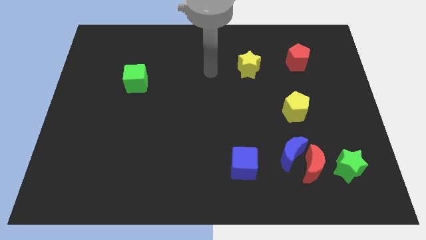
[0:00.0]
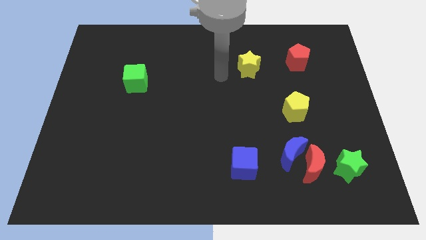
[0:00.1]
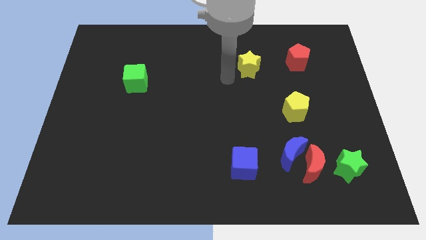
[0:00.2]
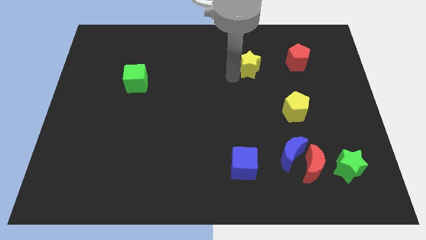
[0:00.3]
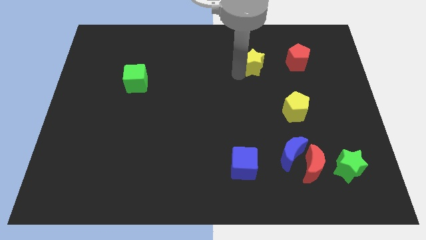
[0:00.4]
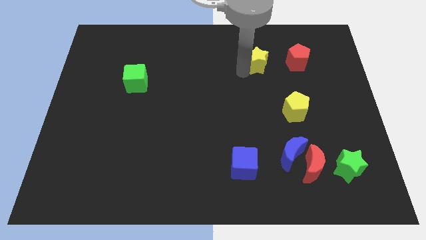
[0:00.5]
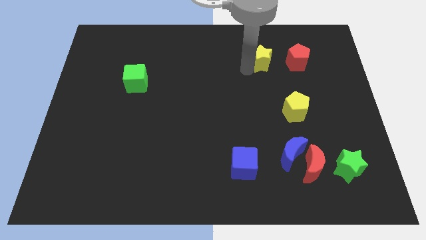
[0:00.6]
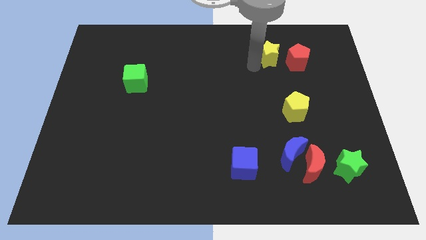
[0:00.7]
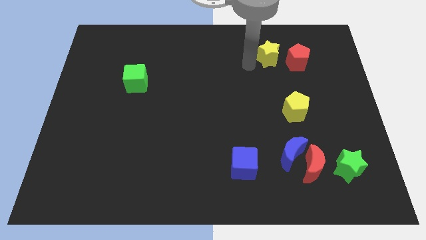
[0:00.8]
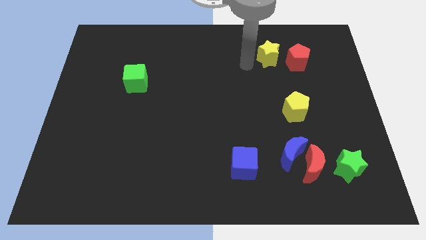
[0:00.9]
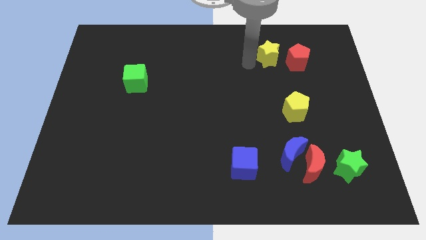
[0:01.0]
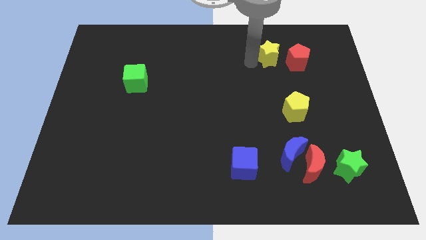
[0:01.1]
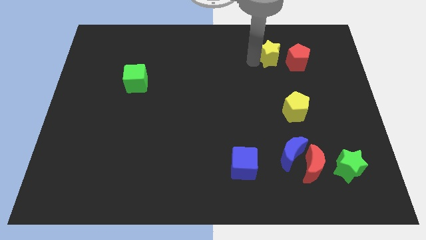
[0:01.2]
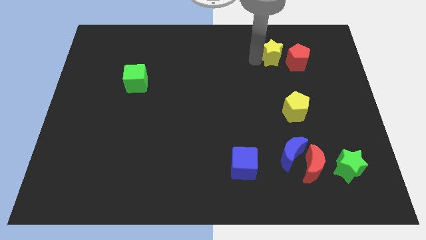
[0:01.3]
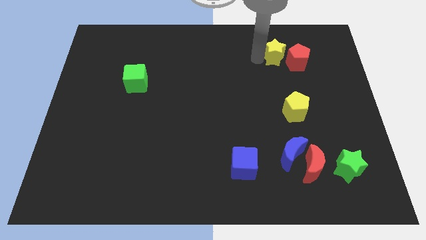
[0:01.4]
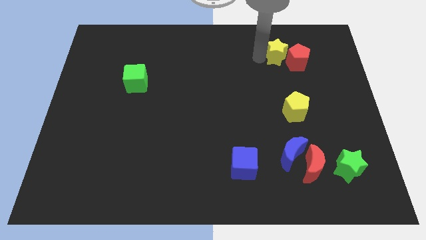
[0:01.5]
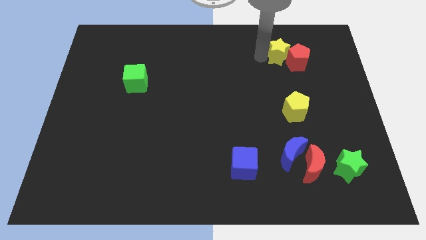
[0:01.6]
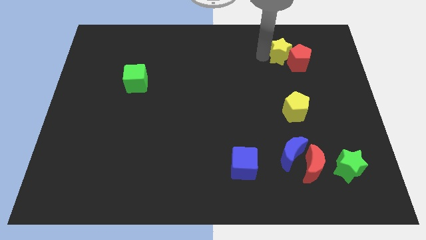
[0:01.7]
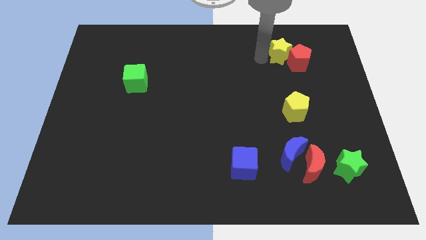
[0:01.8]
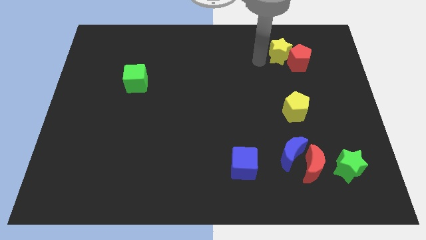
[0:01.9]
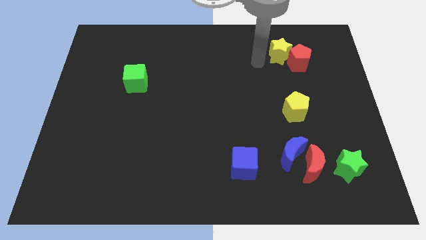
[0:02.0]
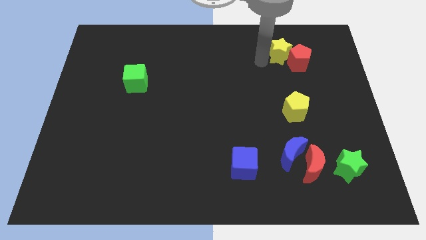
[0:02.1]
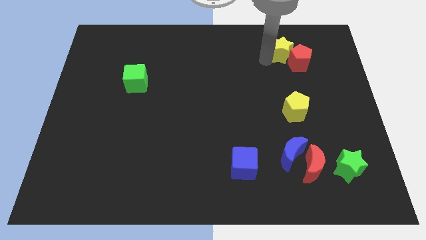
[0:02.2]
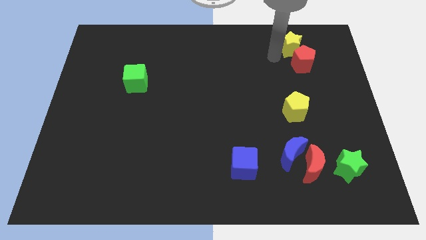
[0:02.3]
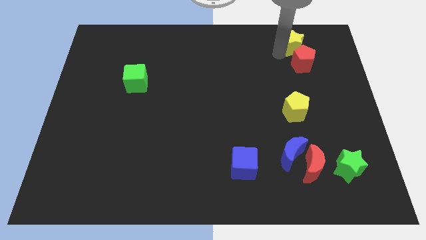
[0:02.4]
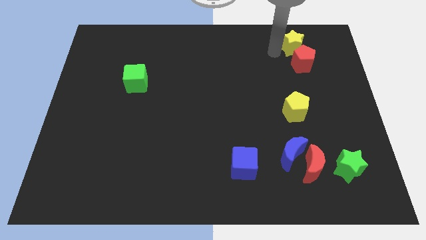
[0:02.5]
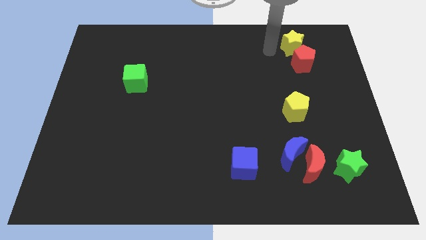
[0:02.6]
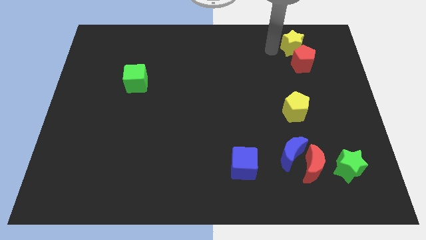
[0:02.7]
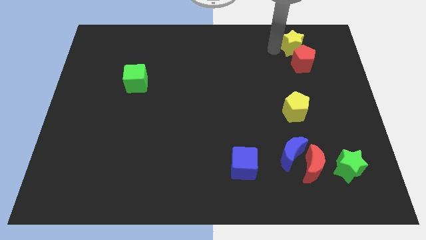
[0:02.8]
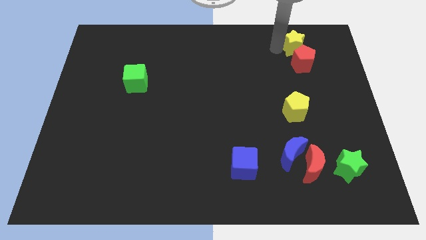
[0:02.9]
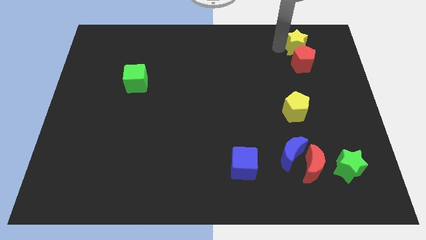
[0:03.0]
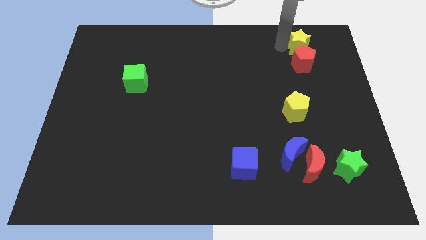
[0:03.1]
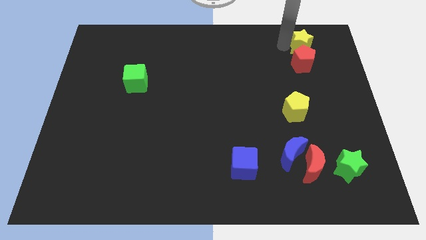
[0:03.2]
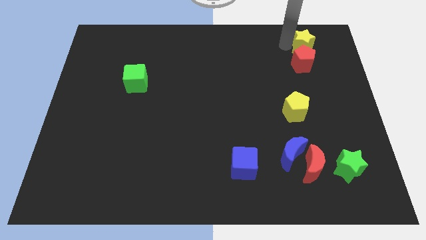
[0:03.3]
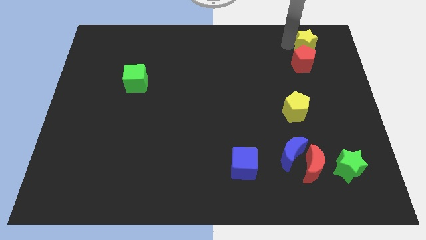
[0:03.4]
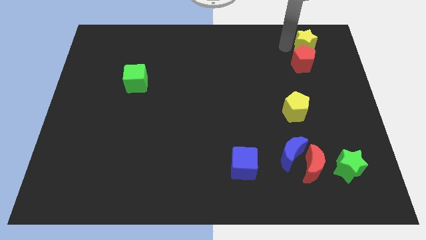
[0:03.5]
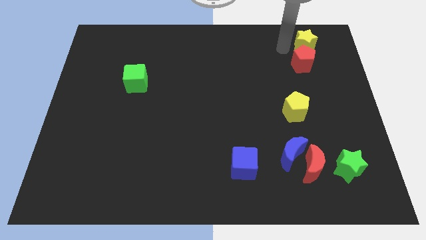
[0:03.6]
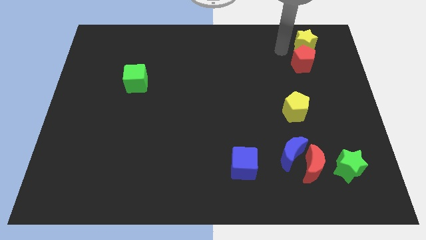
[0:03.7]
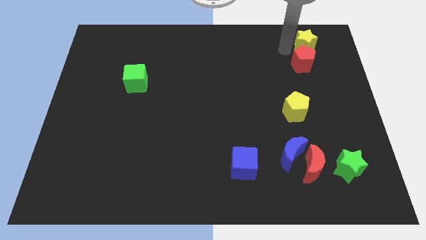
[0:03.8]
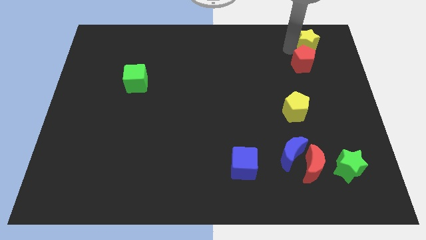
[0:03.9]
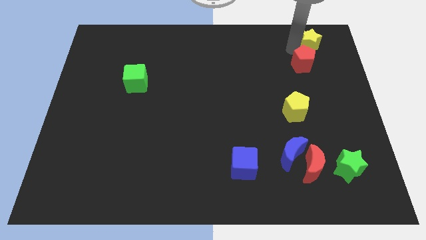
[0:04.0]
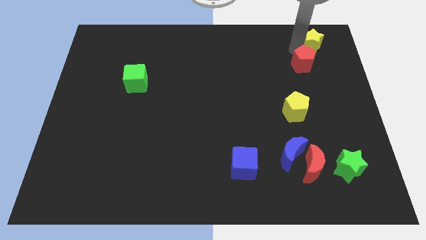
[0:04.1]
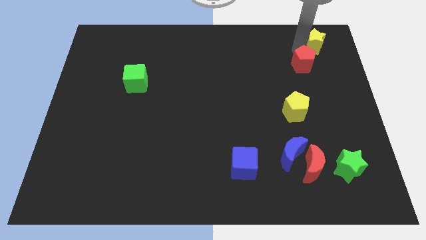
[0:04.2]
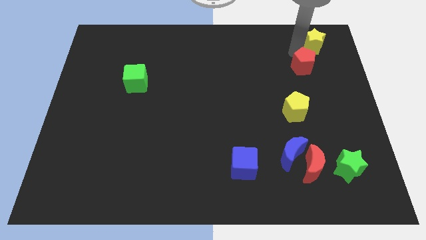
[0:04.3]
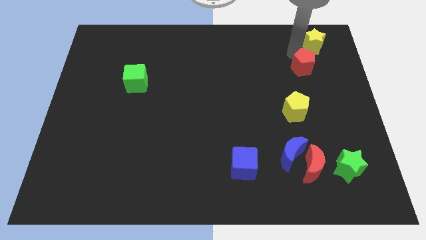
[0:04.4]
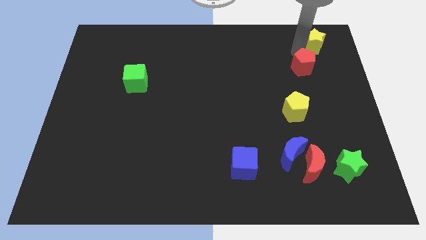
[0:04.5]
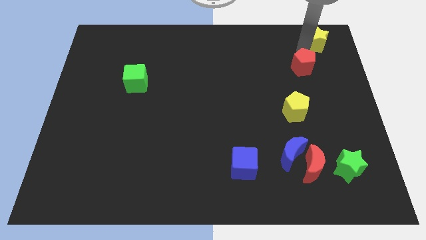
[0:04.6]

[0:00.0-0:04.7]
slide the yellow star to the top right

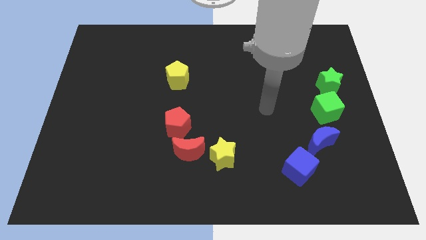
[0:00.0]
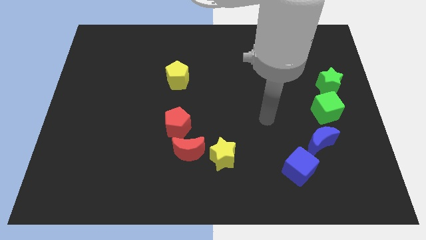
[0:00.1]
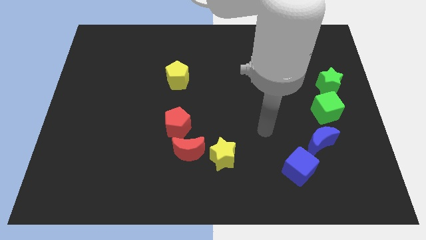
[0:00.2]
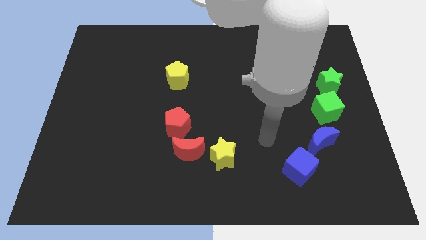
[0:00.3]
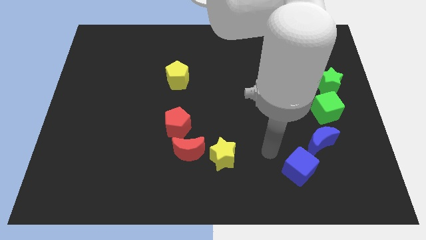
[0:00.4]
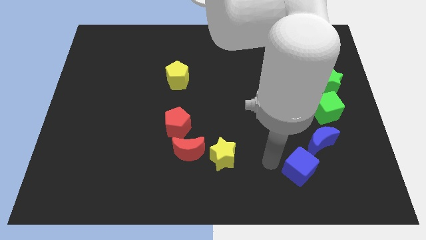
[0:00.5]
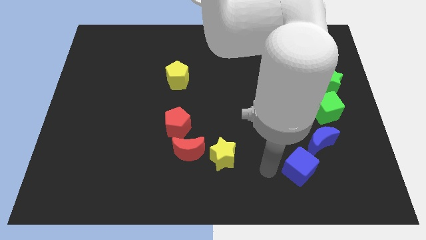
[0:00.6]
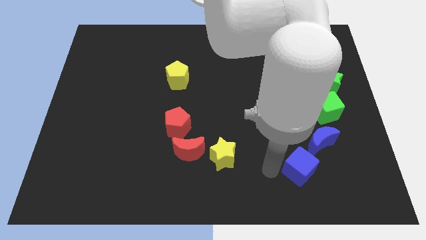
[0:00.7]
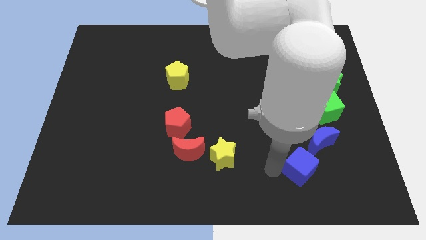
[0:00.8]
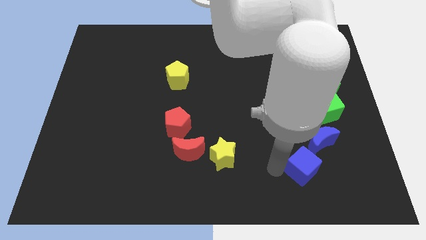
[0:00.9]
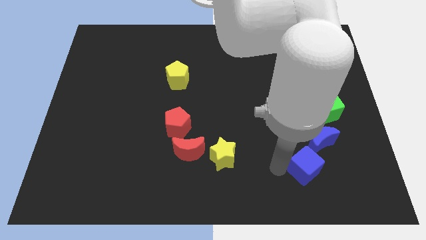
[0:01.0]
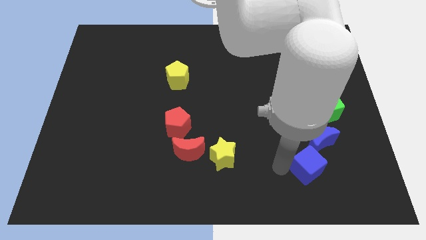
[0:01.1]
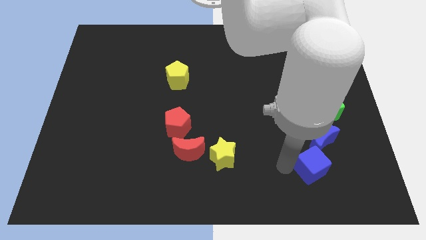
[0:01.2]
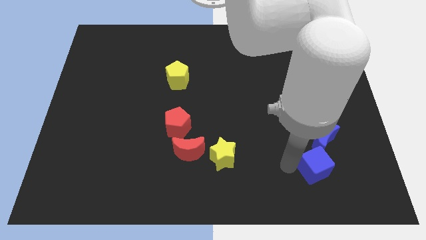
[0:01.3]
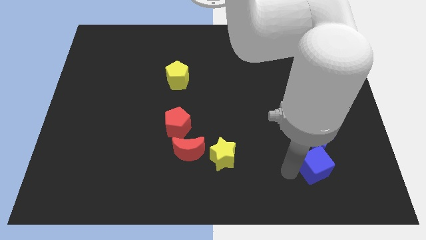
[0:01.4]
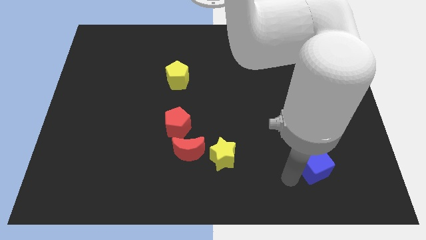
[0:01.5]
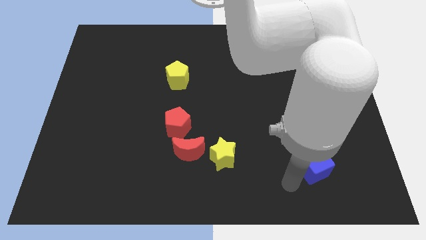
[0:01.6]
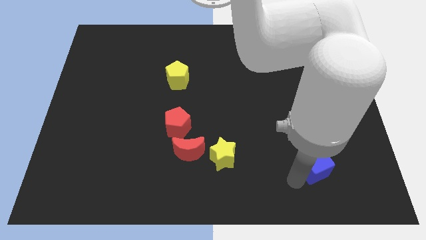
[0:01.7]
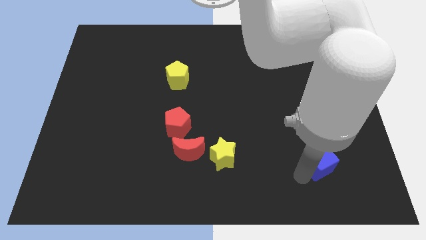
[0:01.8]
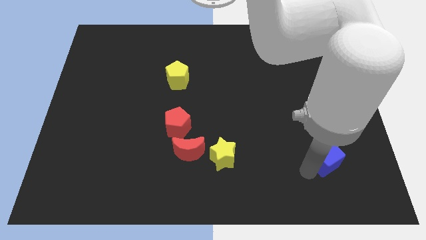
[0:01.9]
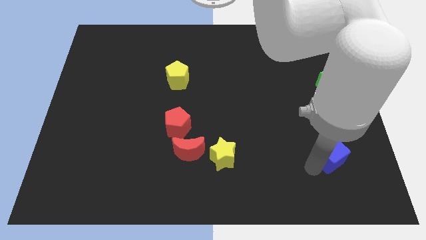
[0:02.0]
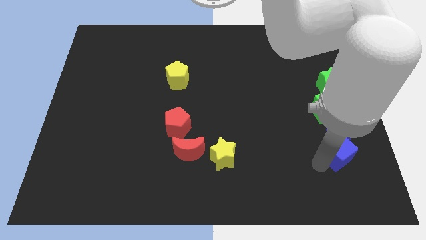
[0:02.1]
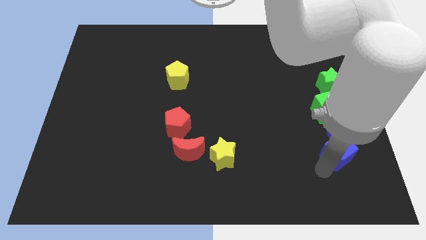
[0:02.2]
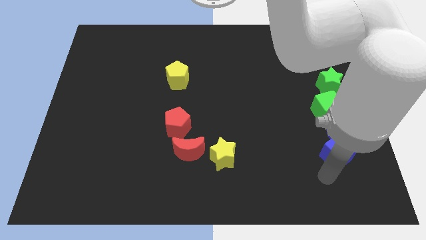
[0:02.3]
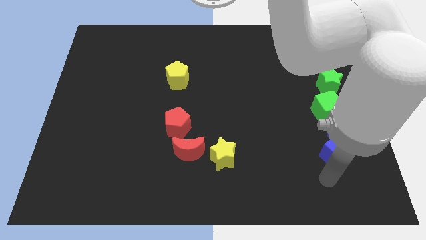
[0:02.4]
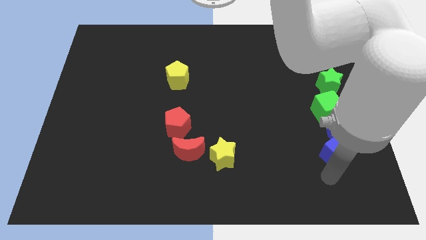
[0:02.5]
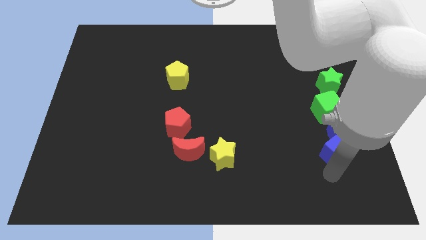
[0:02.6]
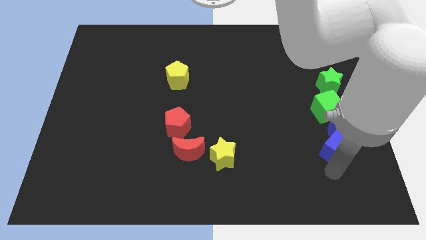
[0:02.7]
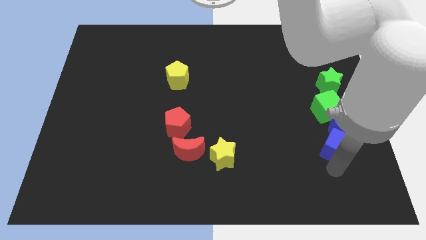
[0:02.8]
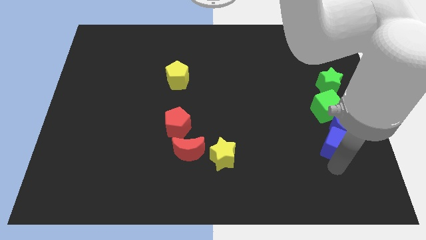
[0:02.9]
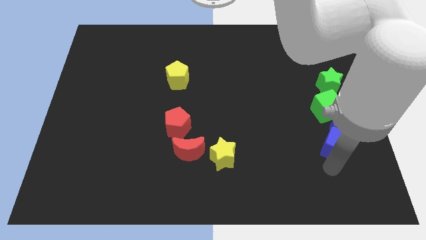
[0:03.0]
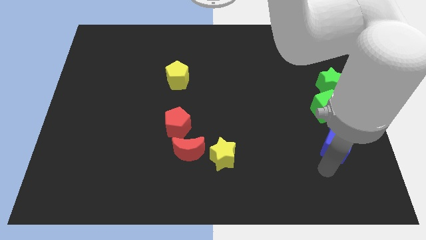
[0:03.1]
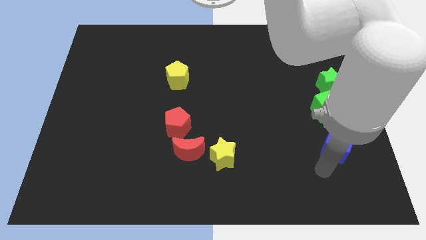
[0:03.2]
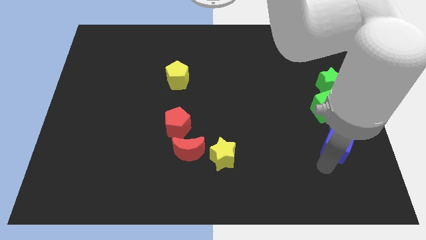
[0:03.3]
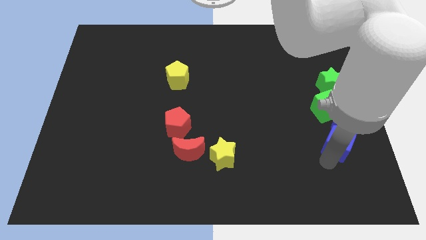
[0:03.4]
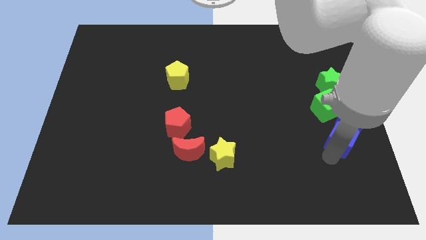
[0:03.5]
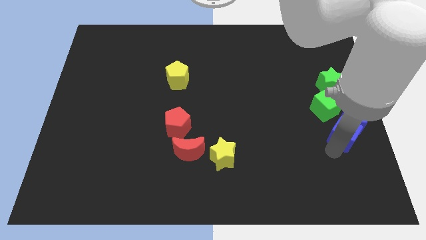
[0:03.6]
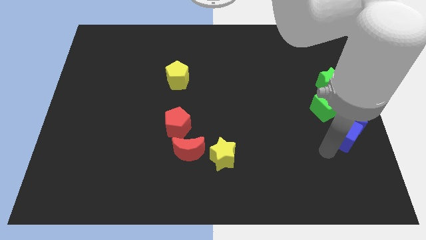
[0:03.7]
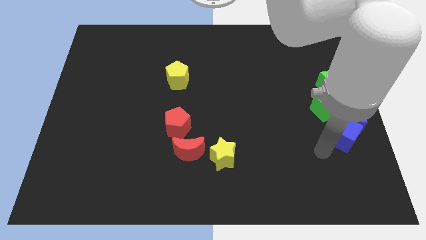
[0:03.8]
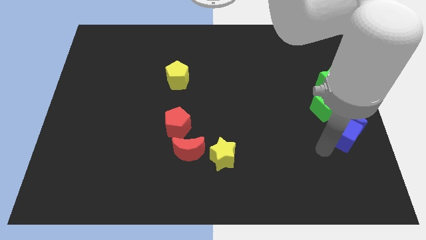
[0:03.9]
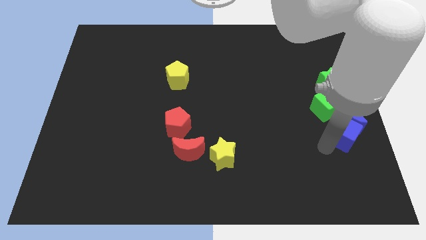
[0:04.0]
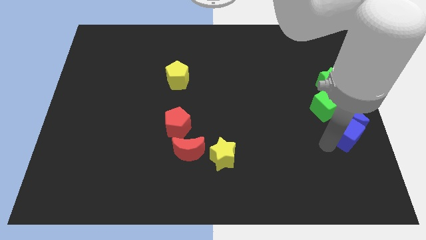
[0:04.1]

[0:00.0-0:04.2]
push the blue cube to the right side
